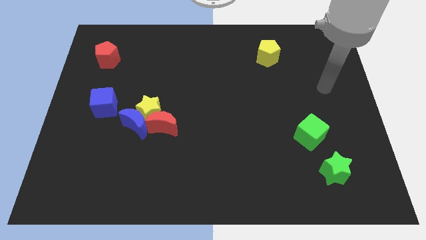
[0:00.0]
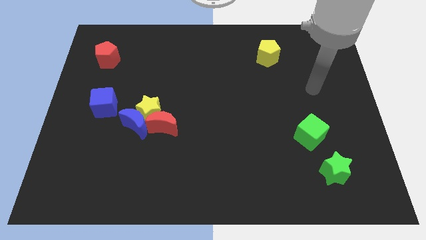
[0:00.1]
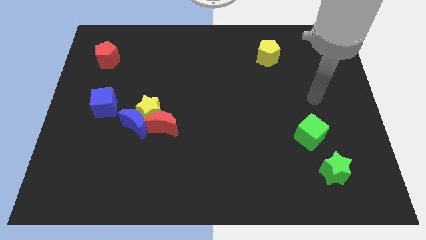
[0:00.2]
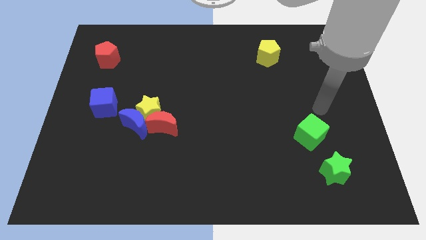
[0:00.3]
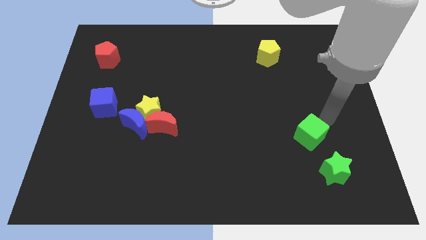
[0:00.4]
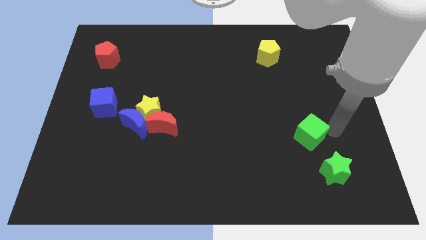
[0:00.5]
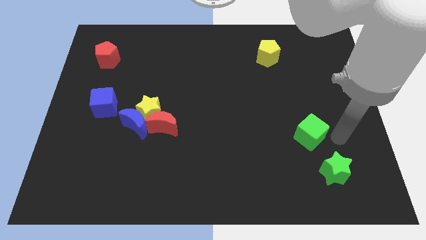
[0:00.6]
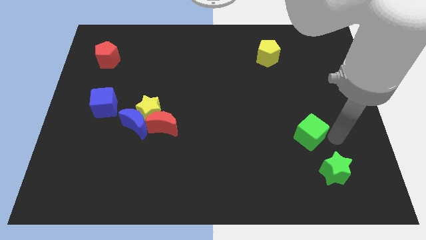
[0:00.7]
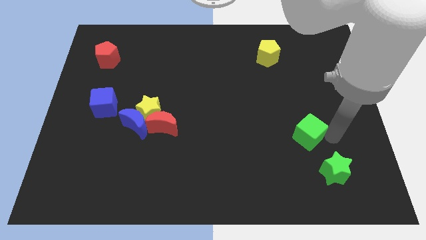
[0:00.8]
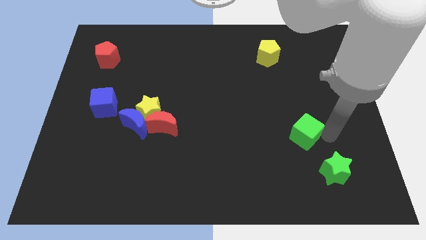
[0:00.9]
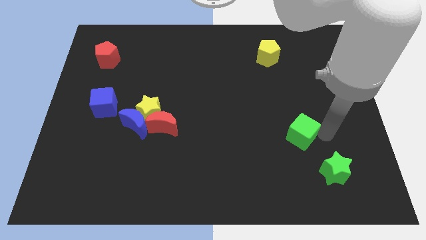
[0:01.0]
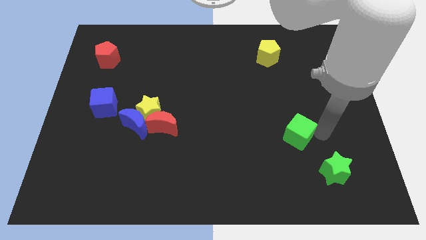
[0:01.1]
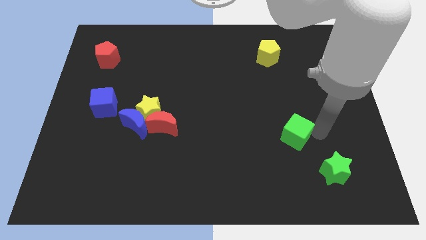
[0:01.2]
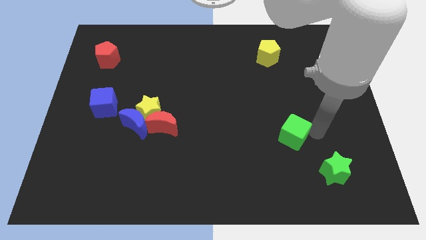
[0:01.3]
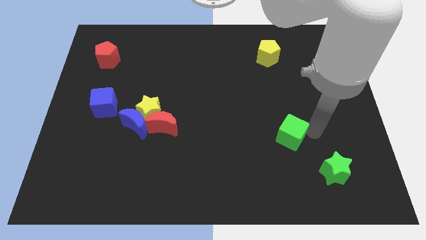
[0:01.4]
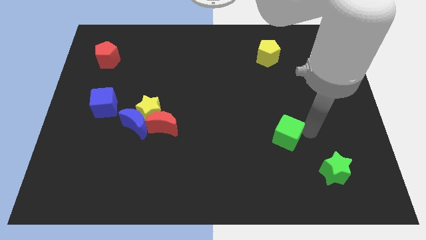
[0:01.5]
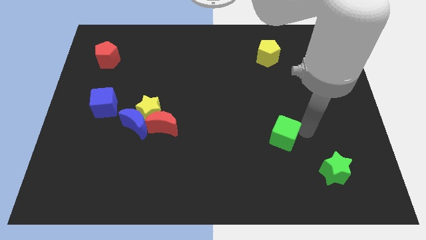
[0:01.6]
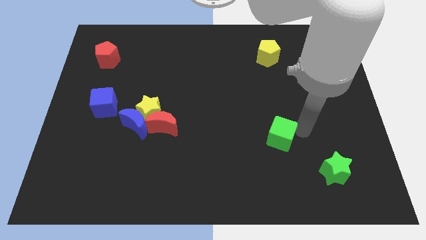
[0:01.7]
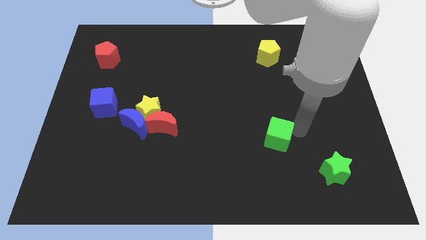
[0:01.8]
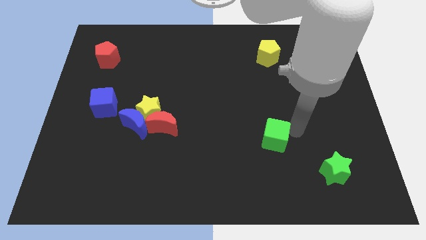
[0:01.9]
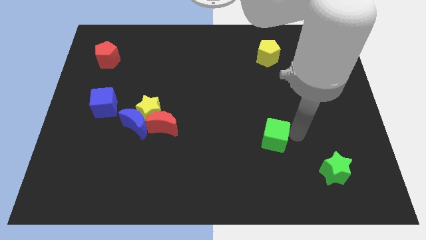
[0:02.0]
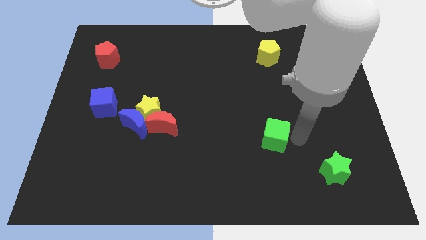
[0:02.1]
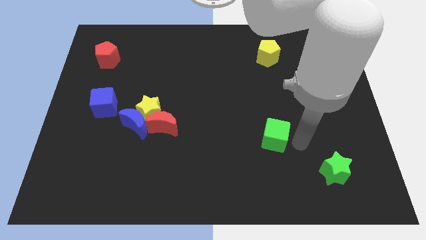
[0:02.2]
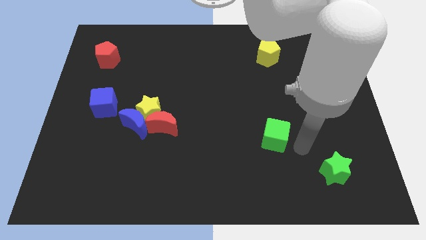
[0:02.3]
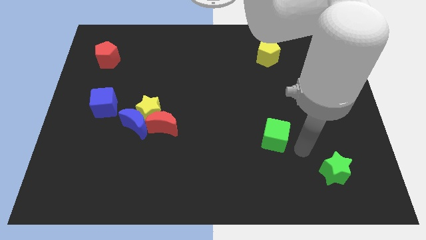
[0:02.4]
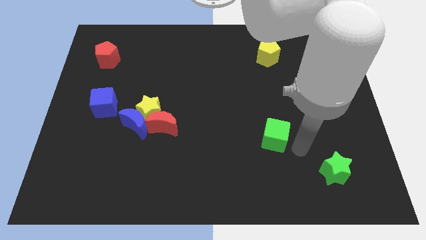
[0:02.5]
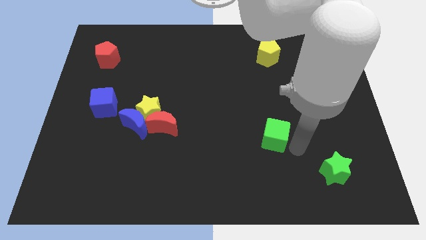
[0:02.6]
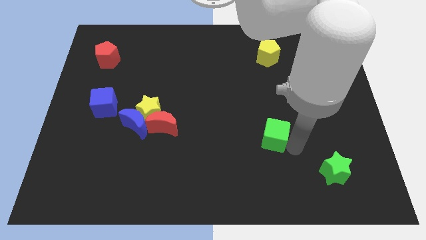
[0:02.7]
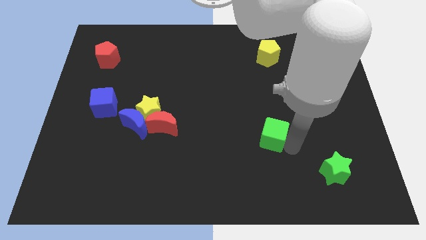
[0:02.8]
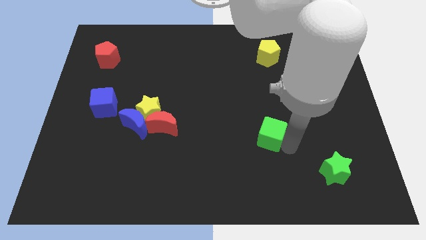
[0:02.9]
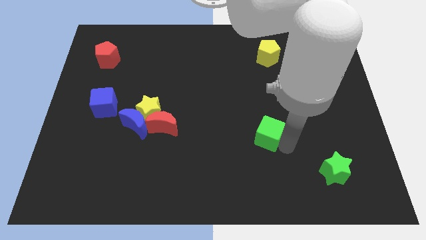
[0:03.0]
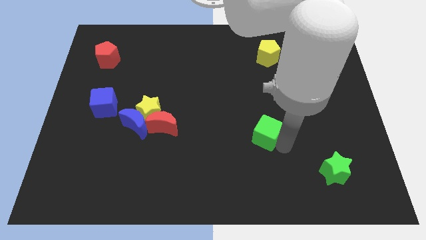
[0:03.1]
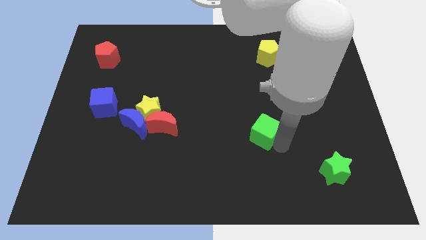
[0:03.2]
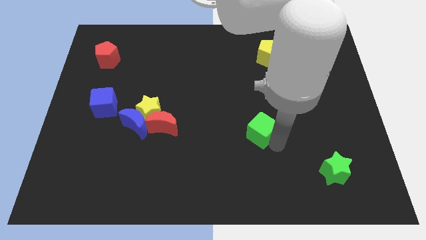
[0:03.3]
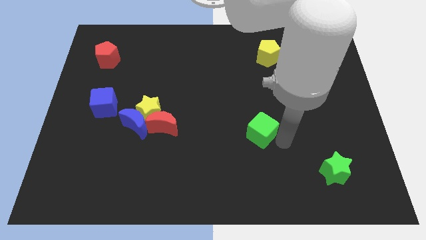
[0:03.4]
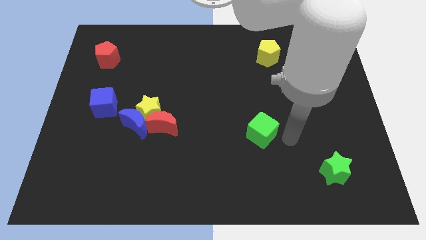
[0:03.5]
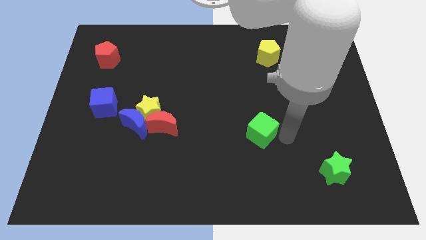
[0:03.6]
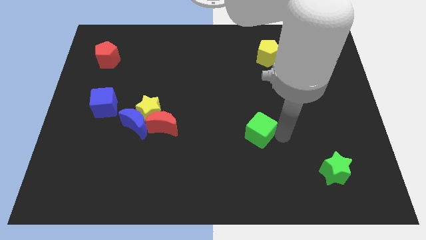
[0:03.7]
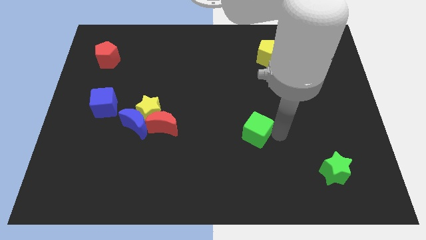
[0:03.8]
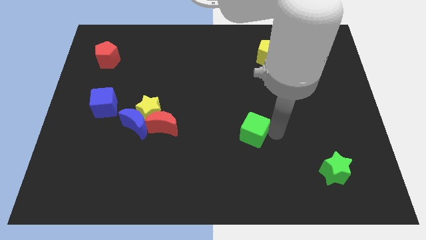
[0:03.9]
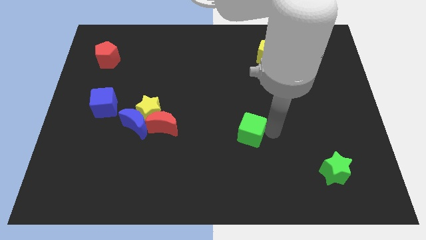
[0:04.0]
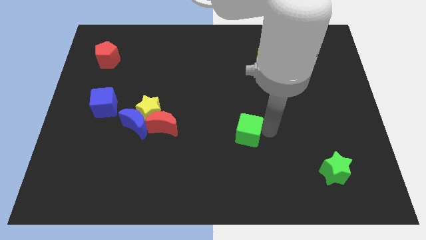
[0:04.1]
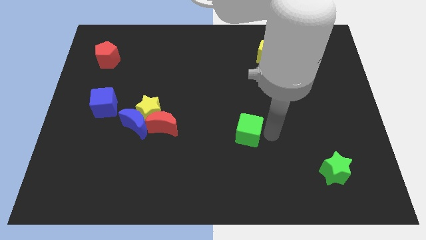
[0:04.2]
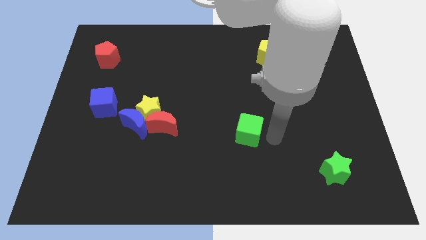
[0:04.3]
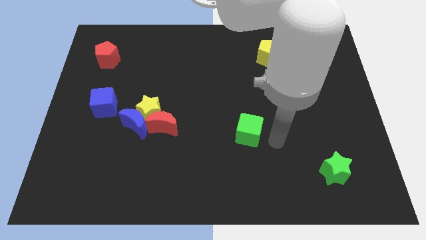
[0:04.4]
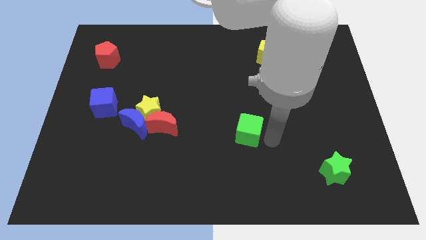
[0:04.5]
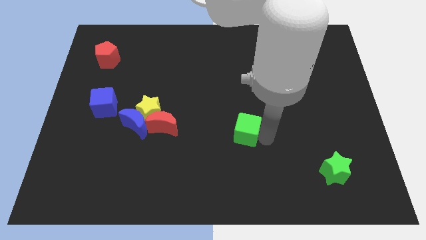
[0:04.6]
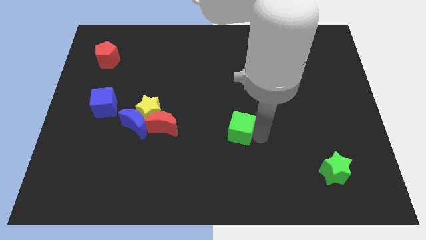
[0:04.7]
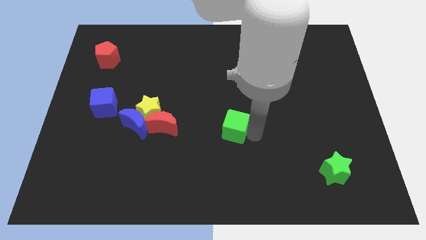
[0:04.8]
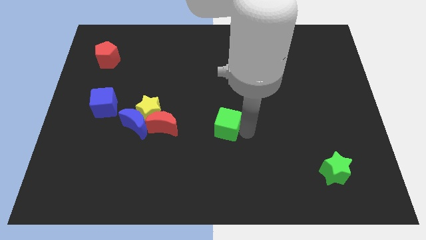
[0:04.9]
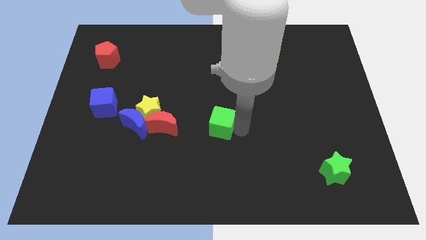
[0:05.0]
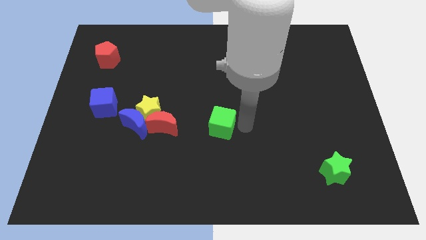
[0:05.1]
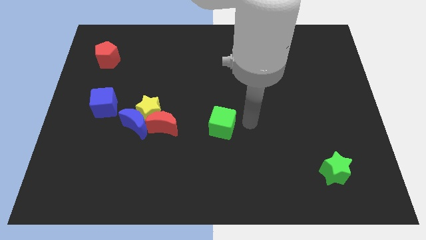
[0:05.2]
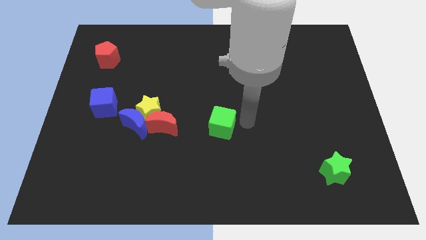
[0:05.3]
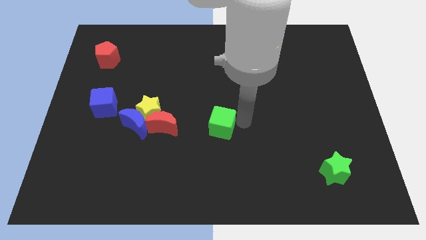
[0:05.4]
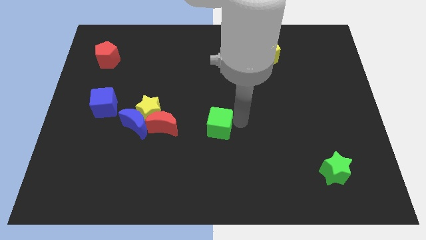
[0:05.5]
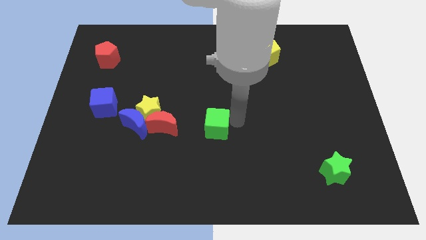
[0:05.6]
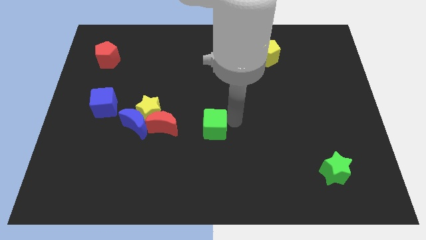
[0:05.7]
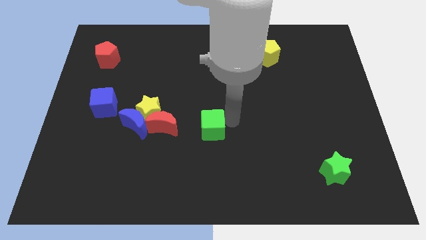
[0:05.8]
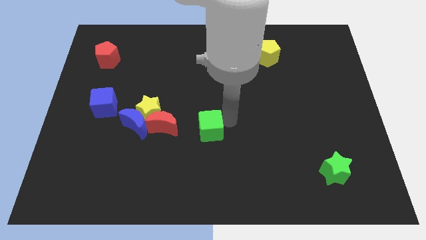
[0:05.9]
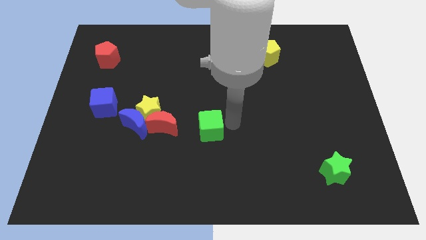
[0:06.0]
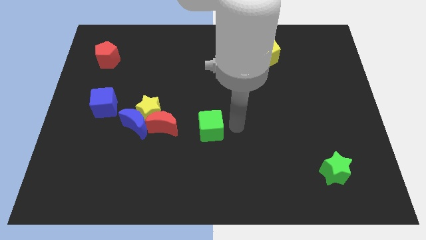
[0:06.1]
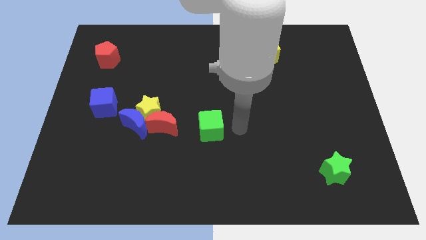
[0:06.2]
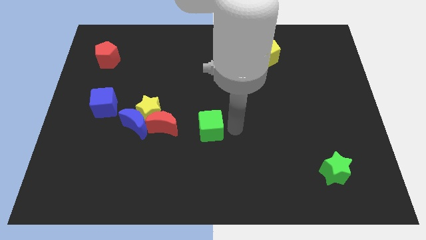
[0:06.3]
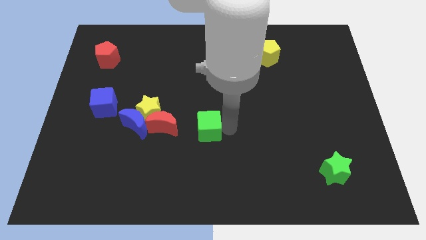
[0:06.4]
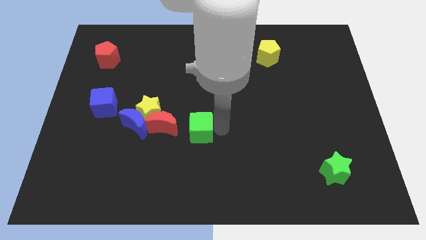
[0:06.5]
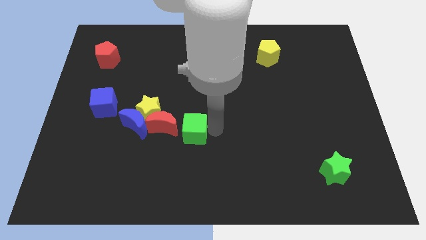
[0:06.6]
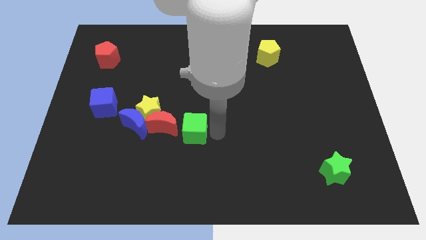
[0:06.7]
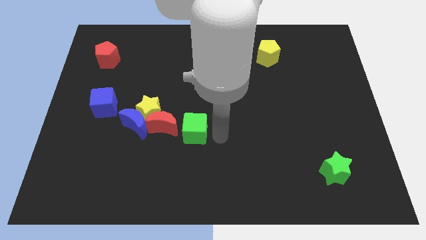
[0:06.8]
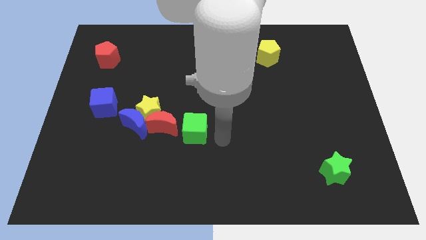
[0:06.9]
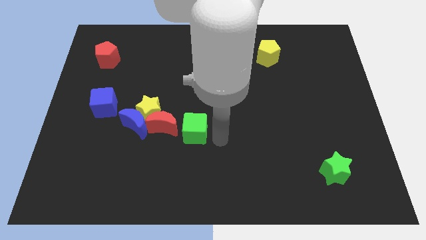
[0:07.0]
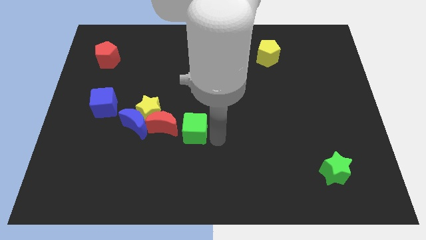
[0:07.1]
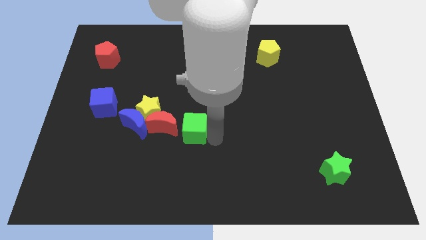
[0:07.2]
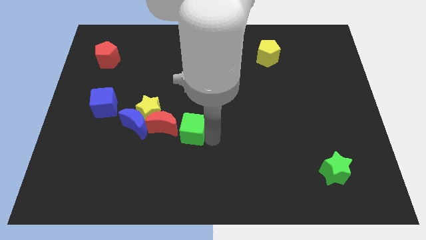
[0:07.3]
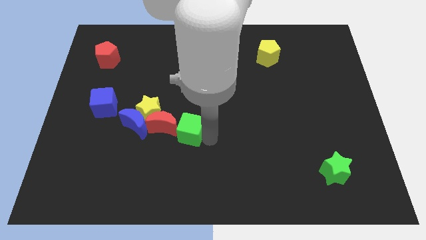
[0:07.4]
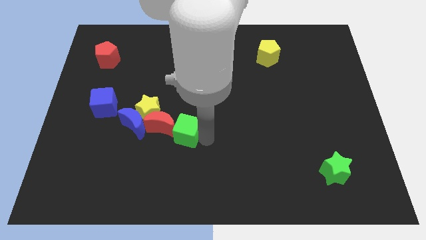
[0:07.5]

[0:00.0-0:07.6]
push the green cube close to the red moon
